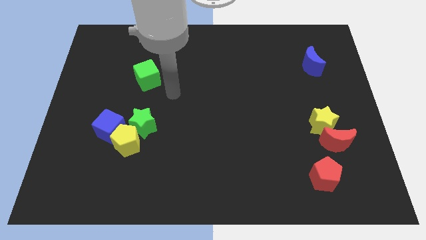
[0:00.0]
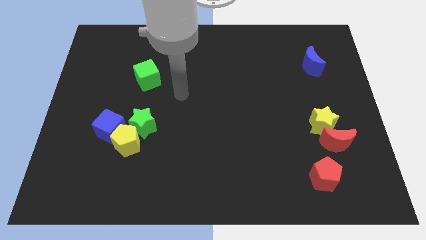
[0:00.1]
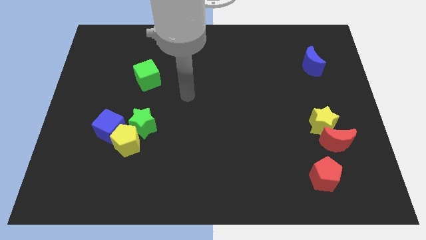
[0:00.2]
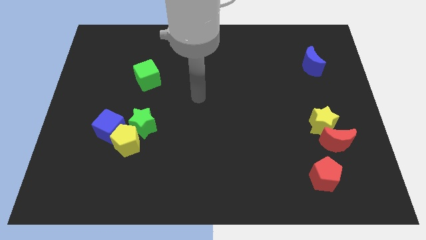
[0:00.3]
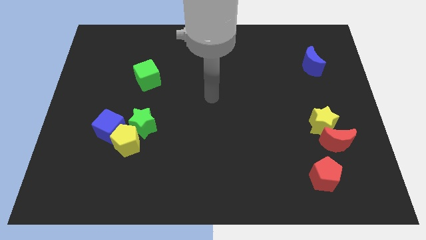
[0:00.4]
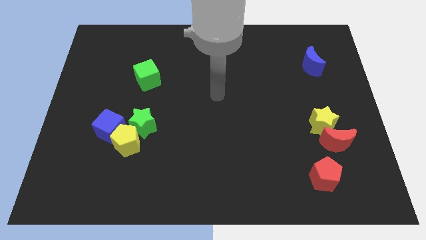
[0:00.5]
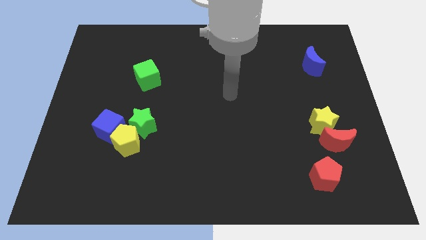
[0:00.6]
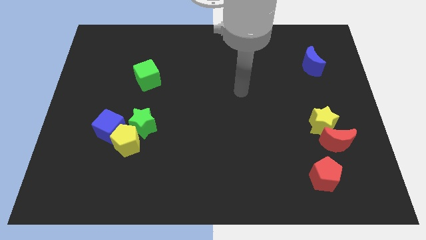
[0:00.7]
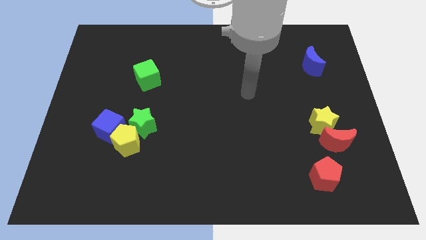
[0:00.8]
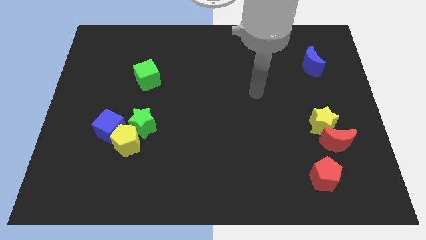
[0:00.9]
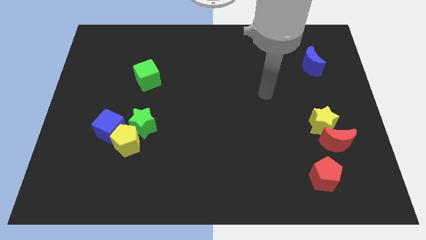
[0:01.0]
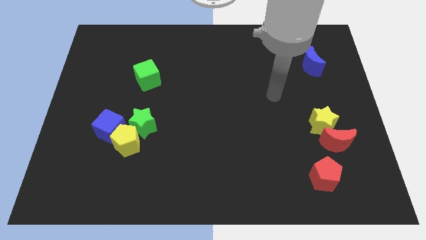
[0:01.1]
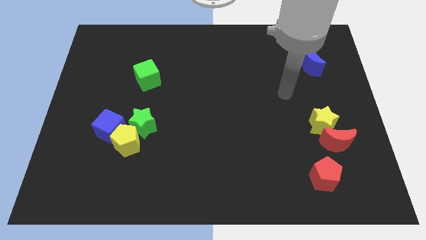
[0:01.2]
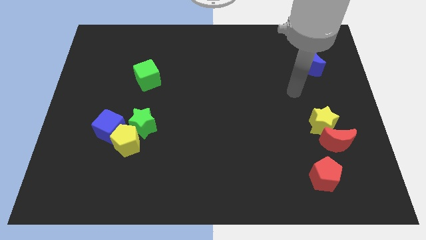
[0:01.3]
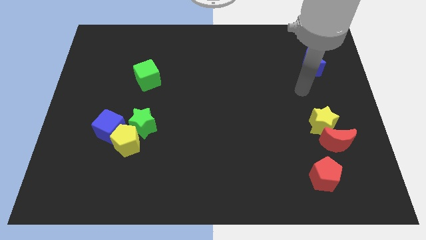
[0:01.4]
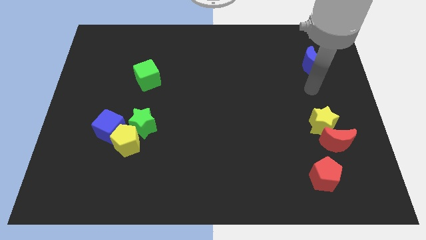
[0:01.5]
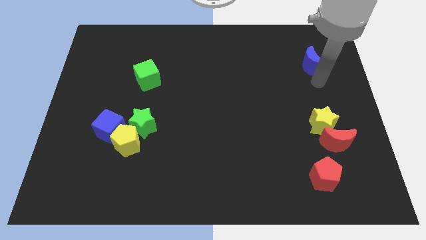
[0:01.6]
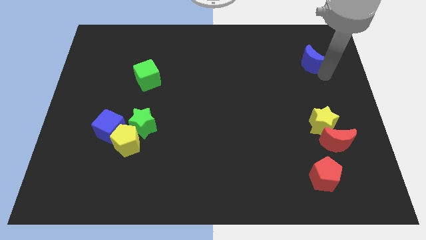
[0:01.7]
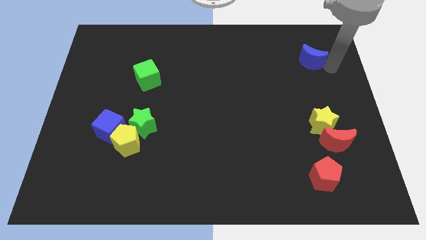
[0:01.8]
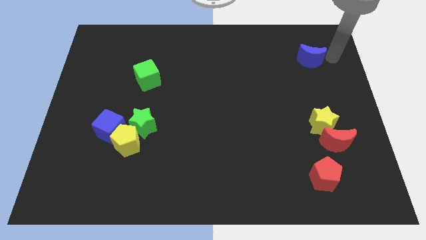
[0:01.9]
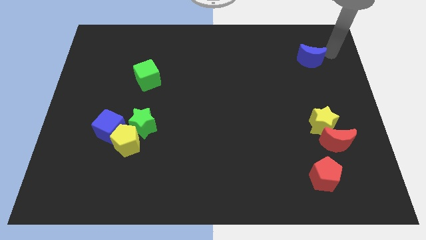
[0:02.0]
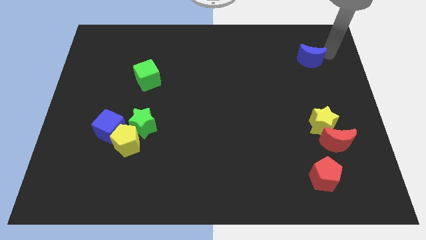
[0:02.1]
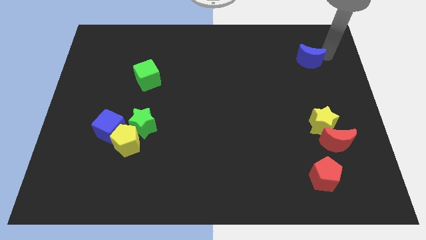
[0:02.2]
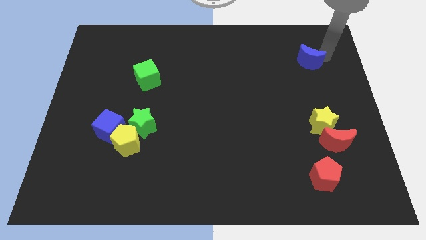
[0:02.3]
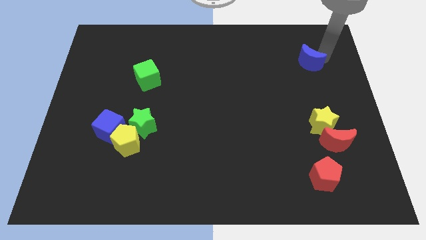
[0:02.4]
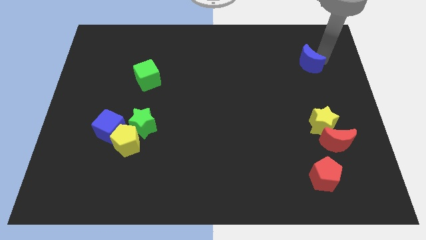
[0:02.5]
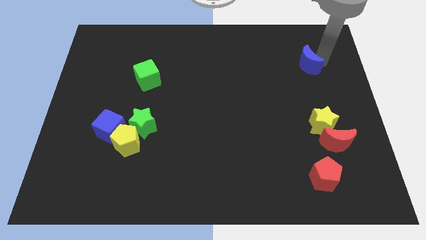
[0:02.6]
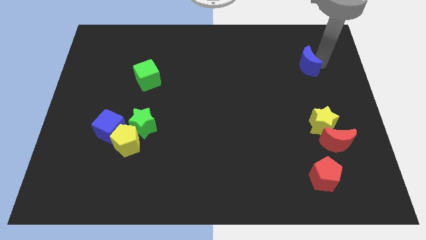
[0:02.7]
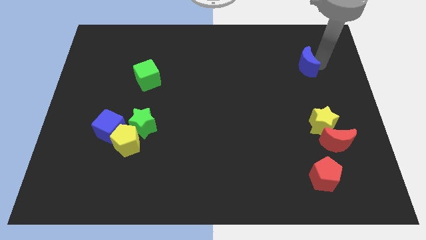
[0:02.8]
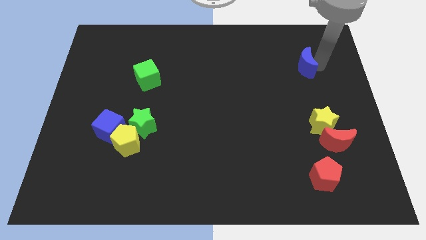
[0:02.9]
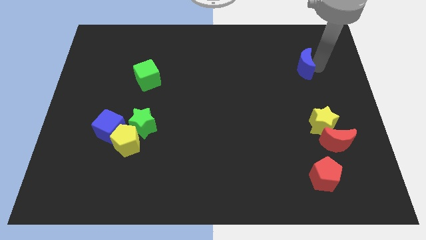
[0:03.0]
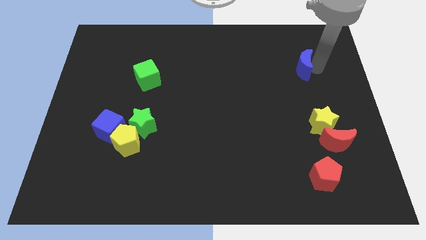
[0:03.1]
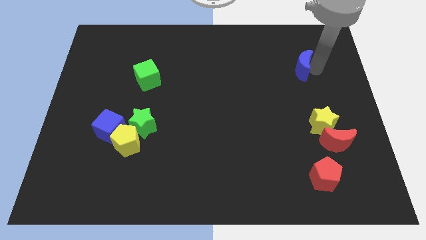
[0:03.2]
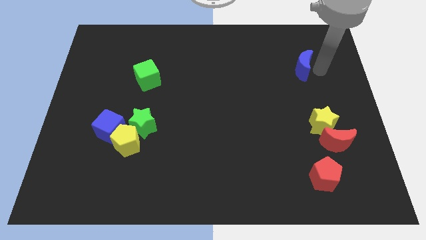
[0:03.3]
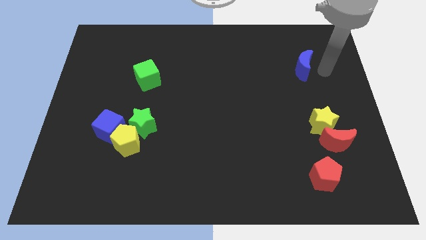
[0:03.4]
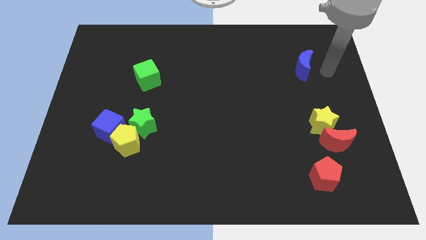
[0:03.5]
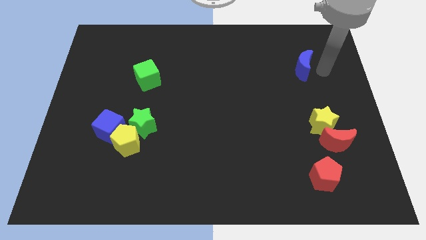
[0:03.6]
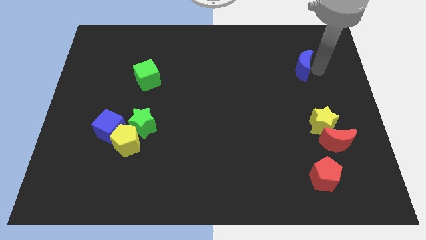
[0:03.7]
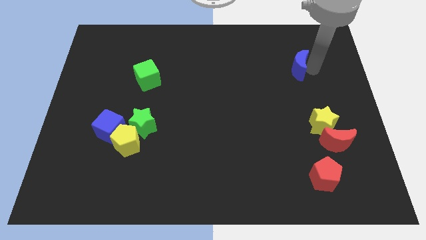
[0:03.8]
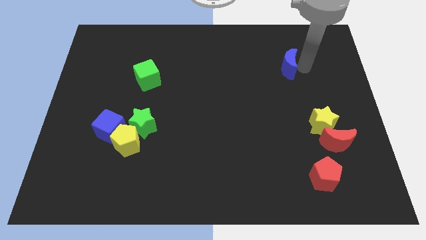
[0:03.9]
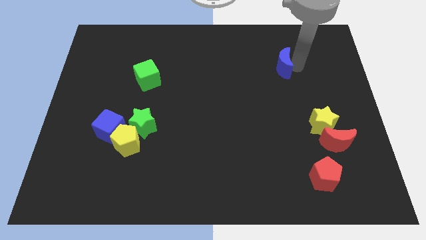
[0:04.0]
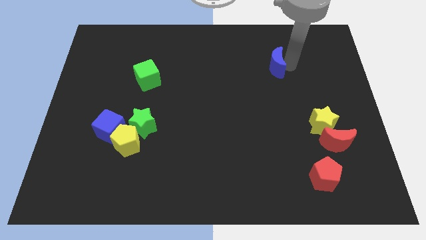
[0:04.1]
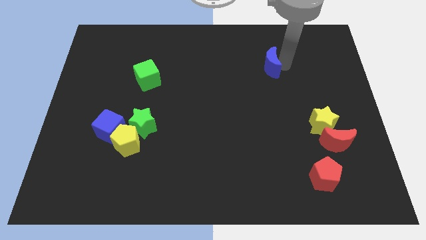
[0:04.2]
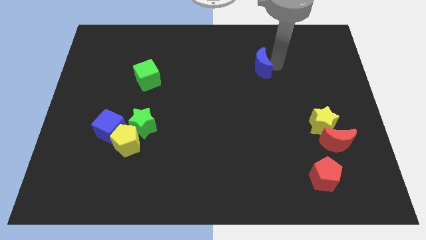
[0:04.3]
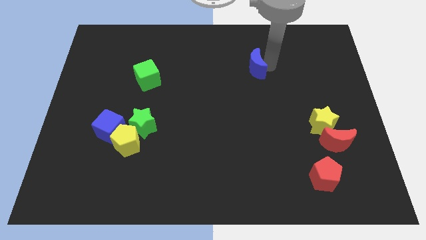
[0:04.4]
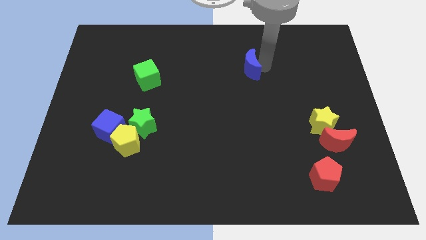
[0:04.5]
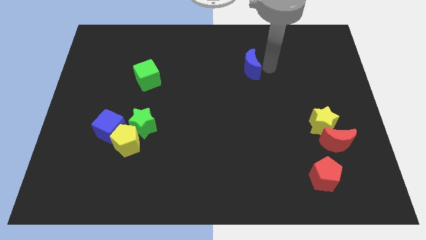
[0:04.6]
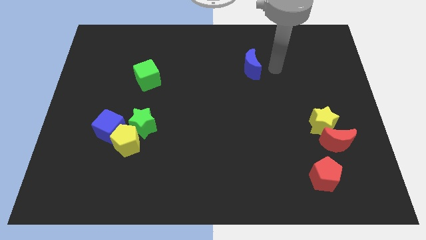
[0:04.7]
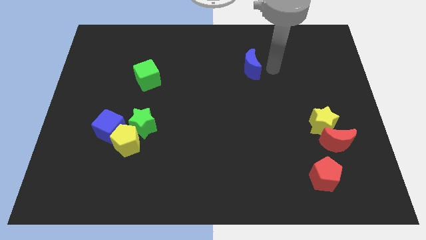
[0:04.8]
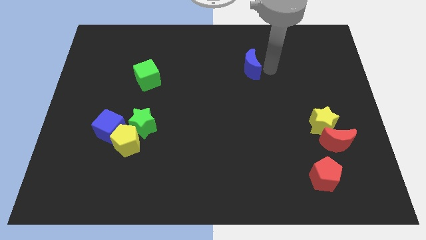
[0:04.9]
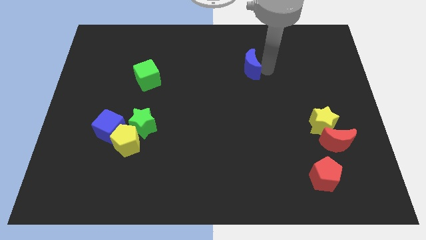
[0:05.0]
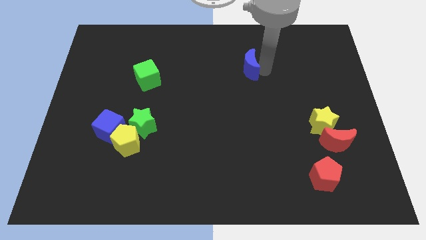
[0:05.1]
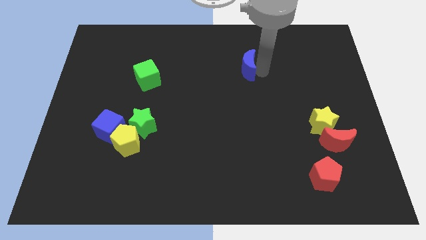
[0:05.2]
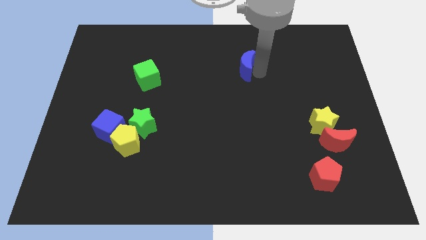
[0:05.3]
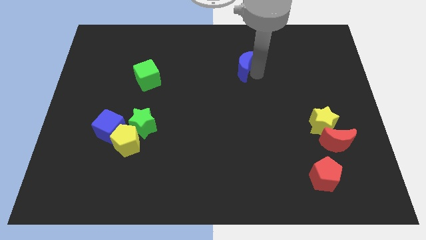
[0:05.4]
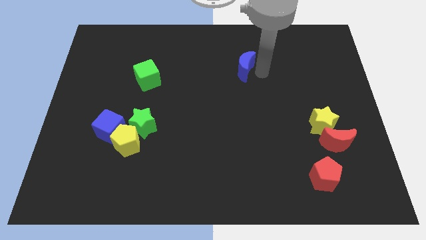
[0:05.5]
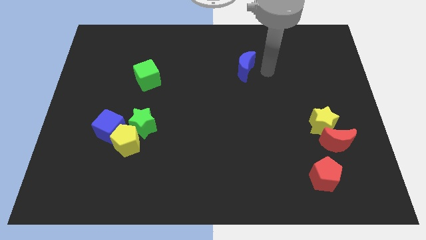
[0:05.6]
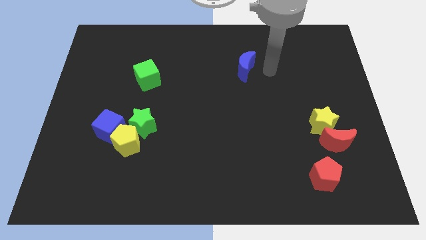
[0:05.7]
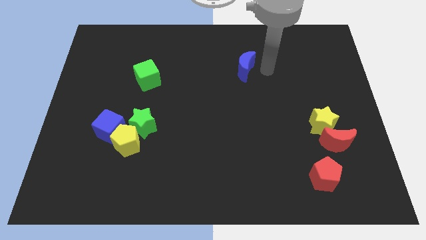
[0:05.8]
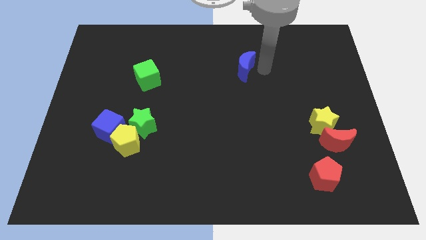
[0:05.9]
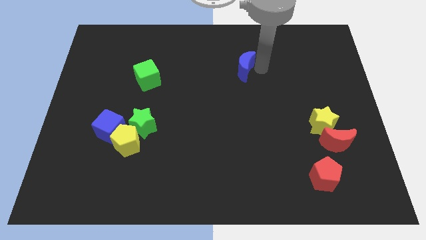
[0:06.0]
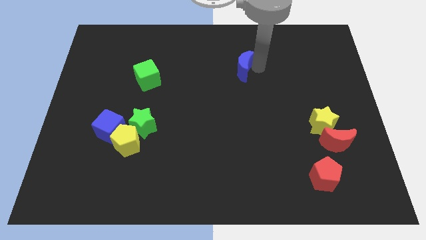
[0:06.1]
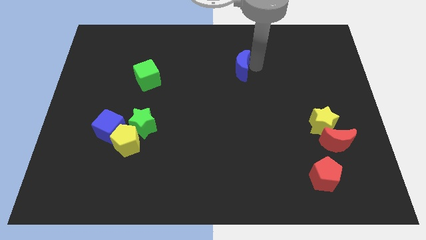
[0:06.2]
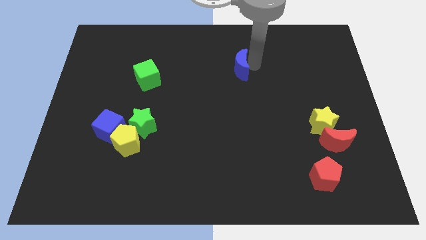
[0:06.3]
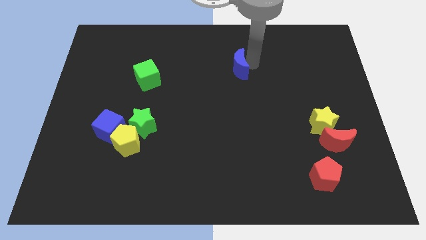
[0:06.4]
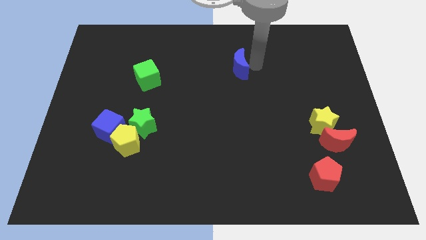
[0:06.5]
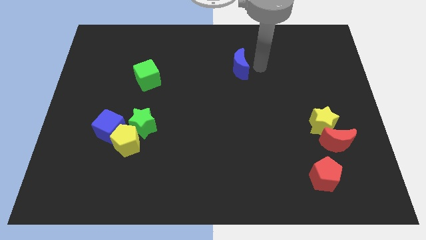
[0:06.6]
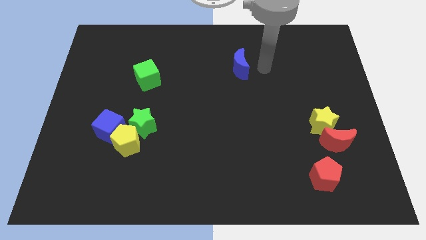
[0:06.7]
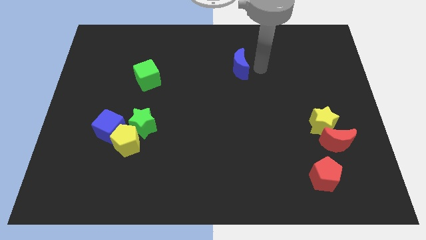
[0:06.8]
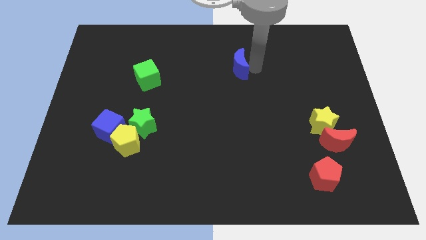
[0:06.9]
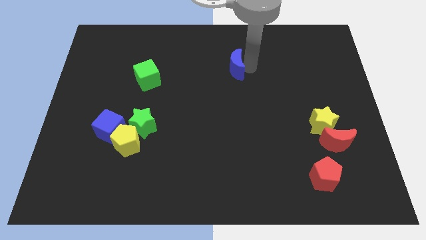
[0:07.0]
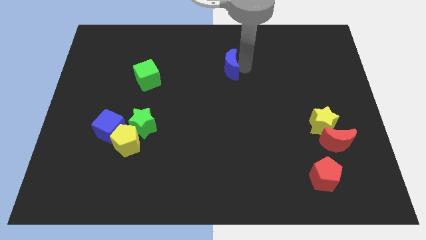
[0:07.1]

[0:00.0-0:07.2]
move the blue moon left

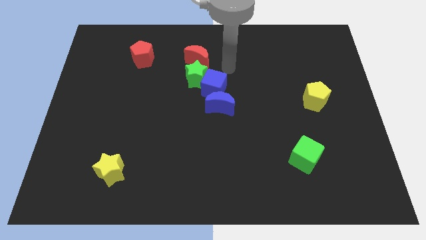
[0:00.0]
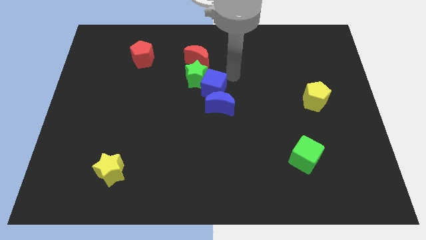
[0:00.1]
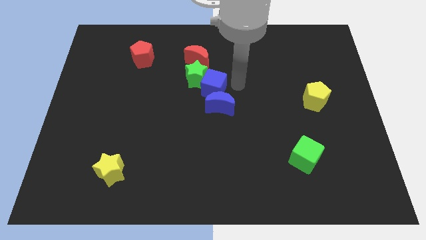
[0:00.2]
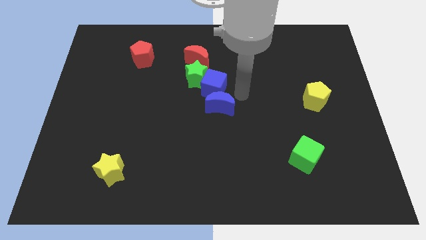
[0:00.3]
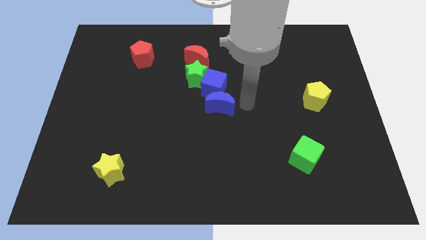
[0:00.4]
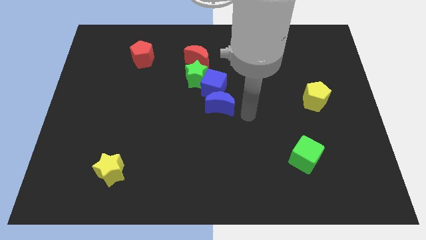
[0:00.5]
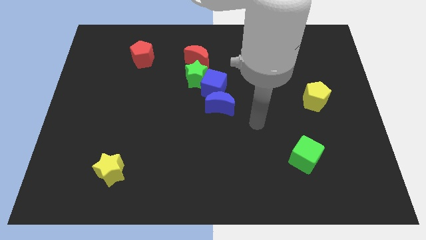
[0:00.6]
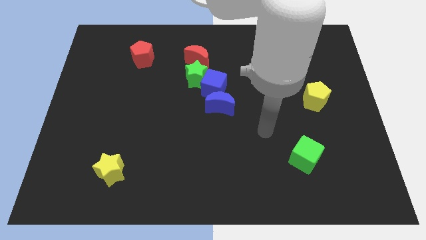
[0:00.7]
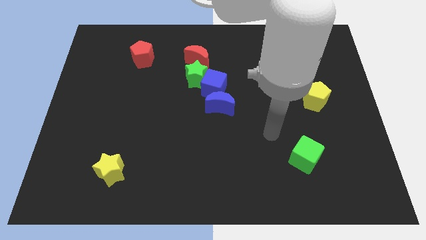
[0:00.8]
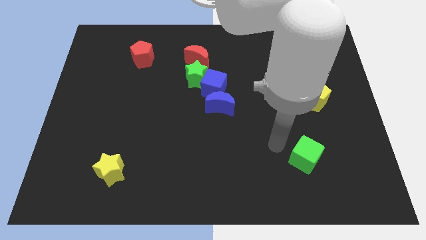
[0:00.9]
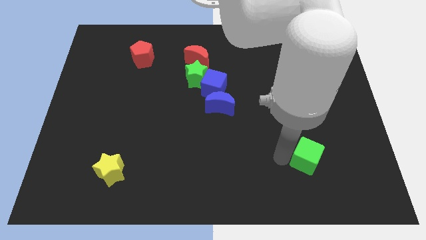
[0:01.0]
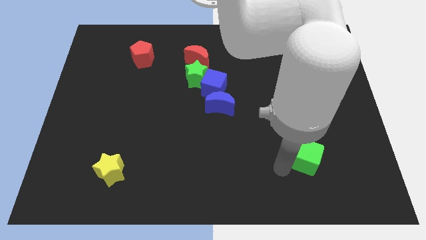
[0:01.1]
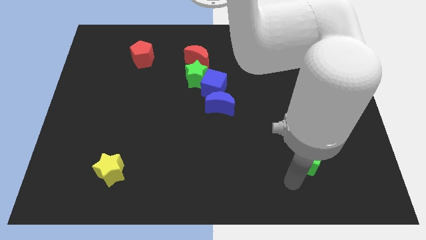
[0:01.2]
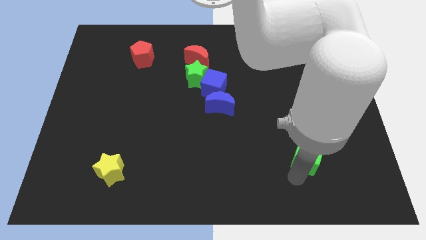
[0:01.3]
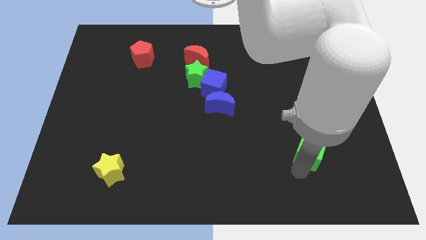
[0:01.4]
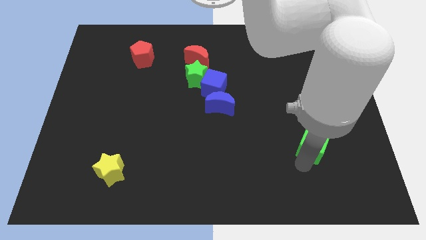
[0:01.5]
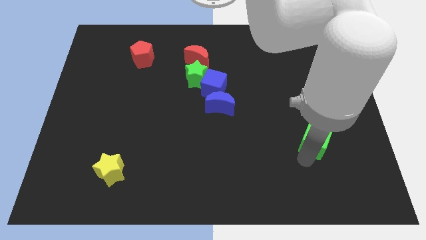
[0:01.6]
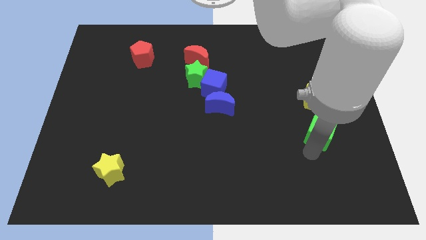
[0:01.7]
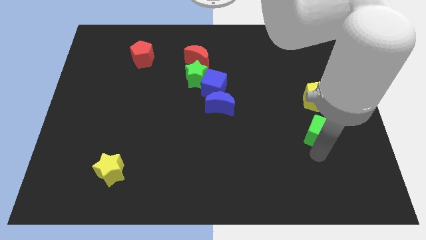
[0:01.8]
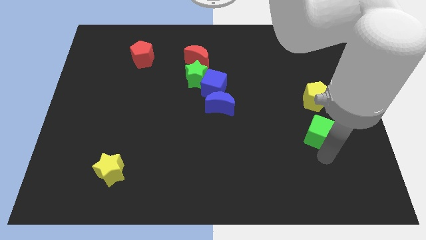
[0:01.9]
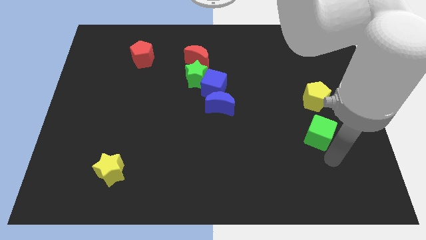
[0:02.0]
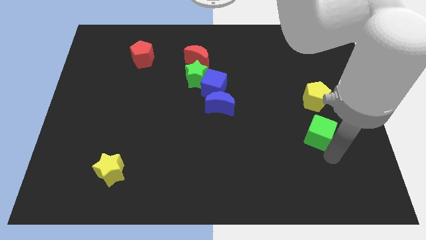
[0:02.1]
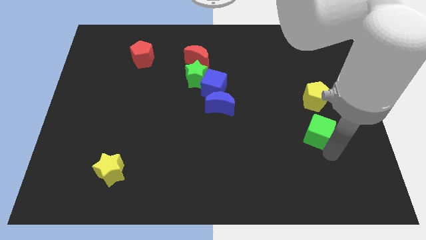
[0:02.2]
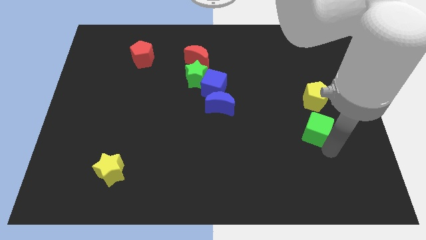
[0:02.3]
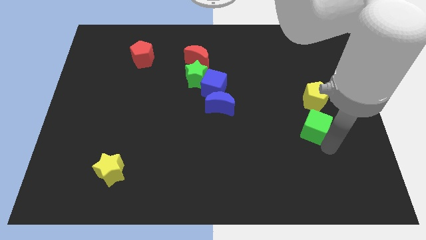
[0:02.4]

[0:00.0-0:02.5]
slide the green cube somewhat upwards
